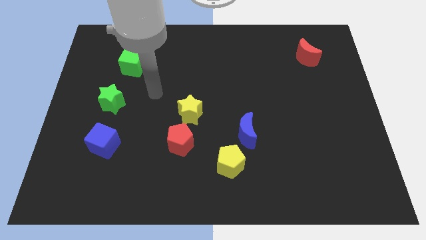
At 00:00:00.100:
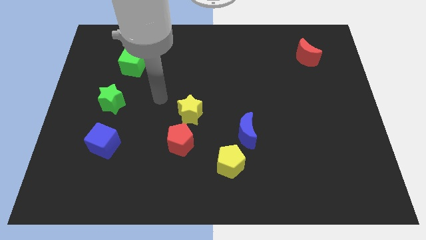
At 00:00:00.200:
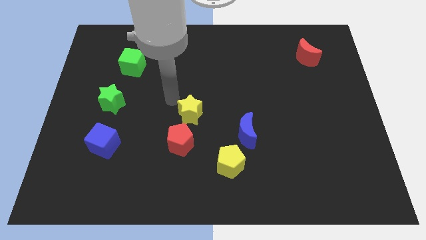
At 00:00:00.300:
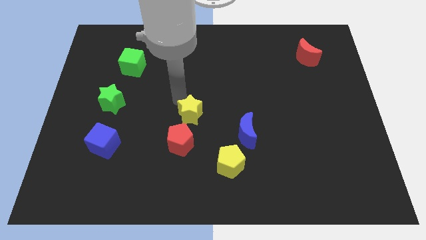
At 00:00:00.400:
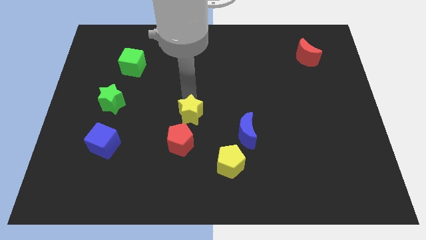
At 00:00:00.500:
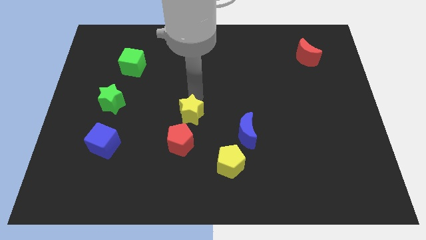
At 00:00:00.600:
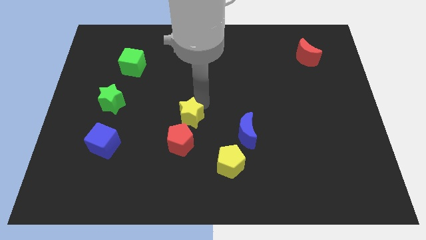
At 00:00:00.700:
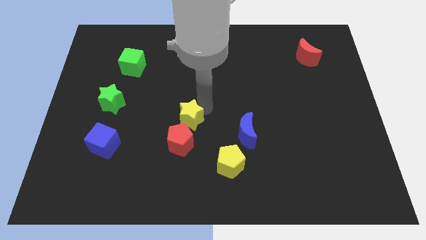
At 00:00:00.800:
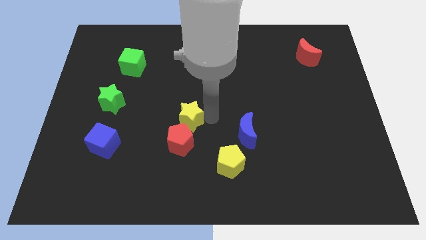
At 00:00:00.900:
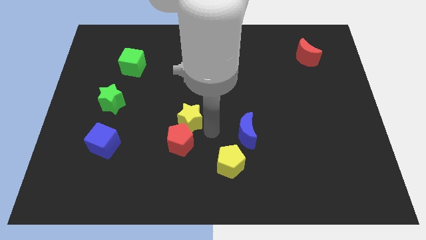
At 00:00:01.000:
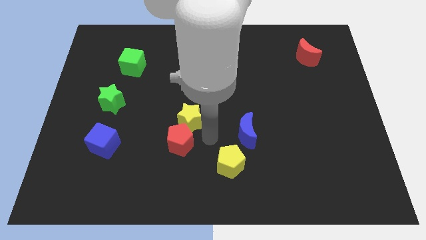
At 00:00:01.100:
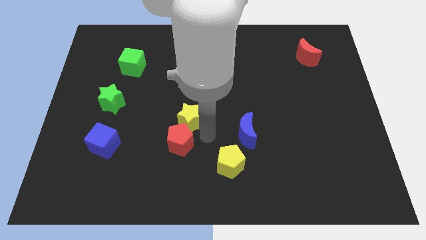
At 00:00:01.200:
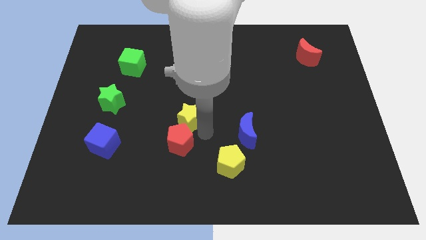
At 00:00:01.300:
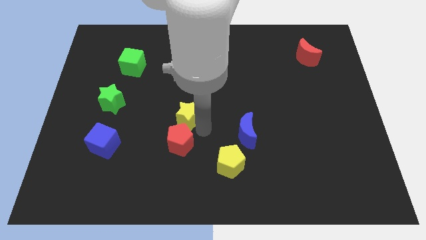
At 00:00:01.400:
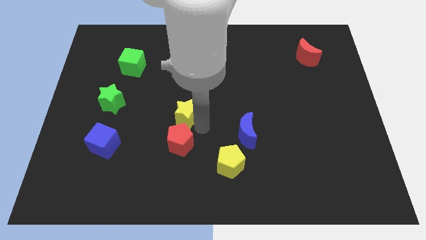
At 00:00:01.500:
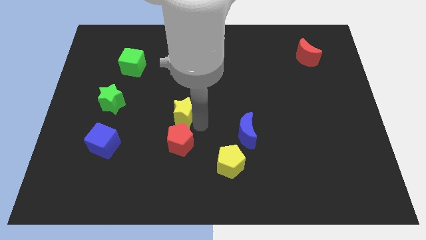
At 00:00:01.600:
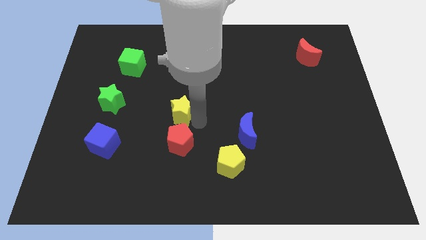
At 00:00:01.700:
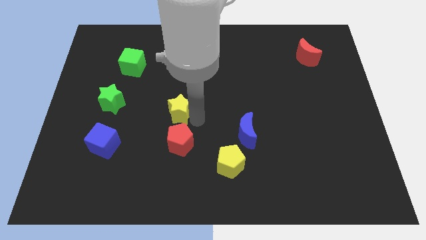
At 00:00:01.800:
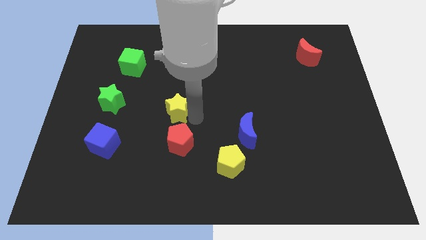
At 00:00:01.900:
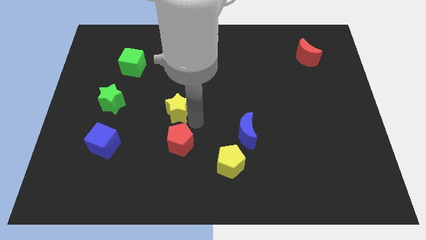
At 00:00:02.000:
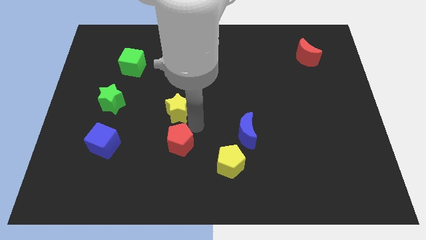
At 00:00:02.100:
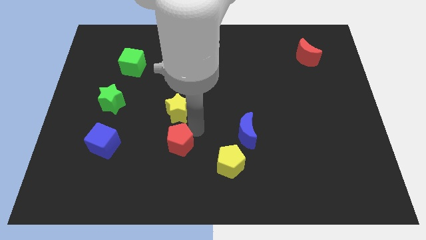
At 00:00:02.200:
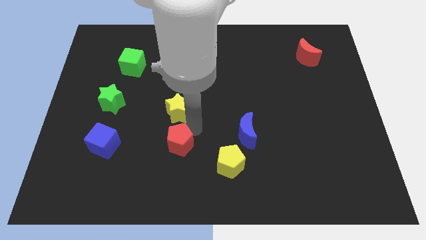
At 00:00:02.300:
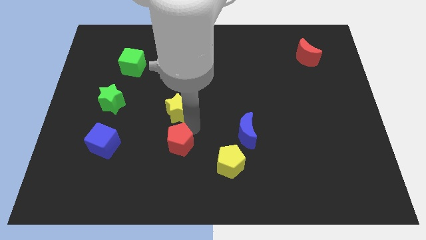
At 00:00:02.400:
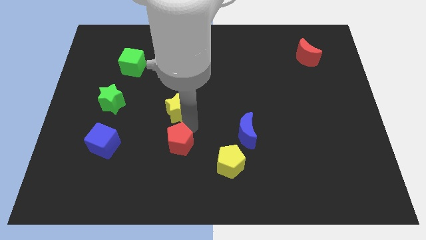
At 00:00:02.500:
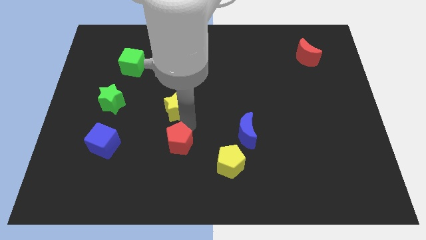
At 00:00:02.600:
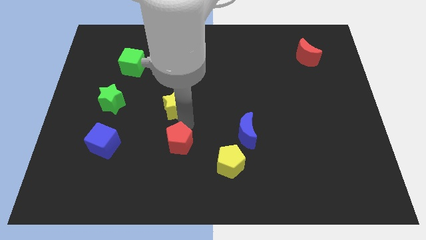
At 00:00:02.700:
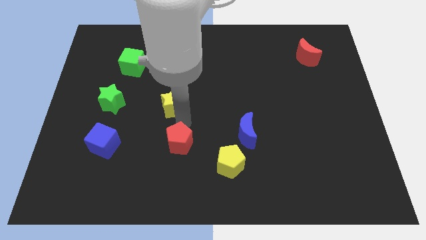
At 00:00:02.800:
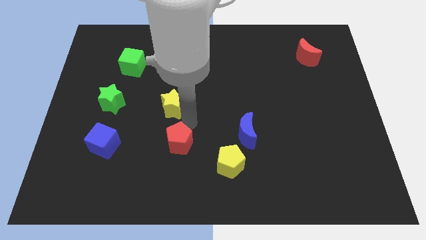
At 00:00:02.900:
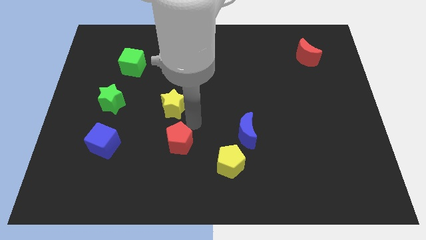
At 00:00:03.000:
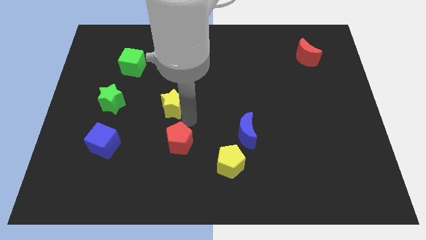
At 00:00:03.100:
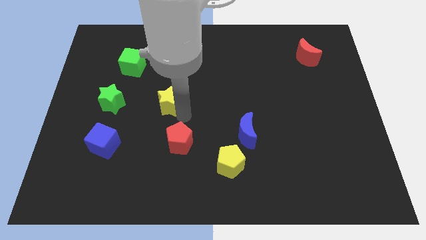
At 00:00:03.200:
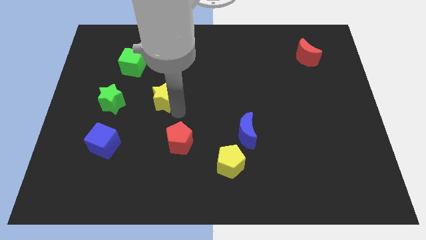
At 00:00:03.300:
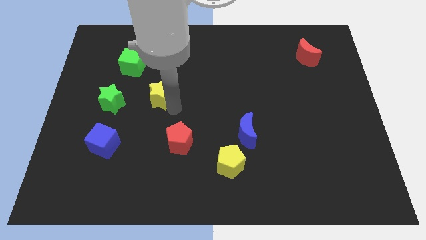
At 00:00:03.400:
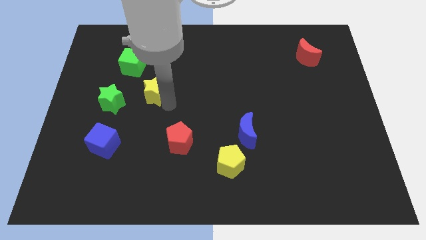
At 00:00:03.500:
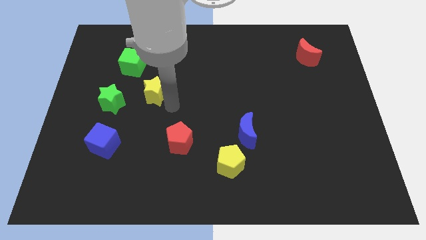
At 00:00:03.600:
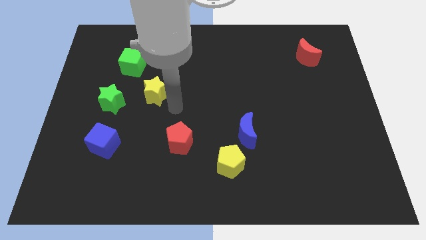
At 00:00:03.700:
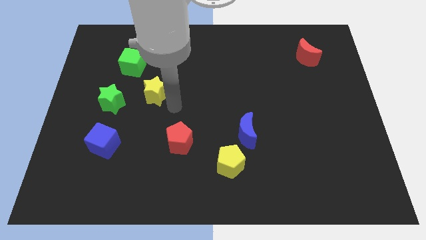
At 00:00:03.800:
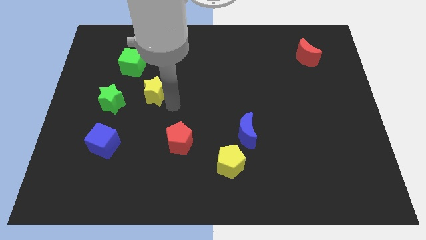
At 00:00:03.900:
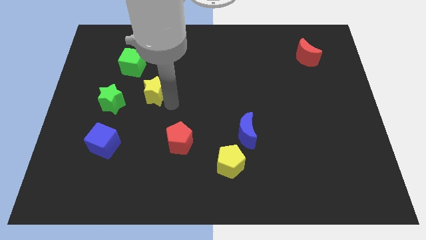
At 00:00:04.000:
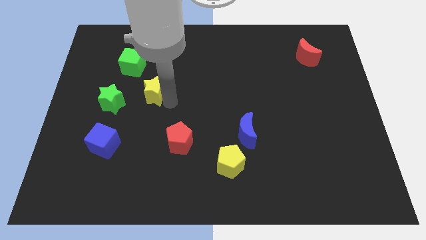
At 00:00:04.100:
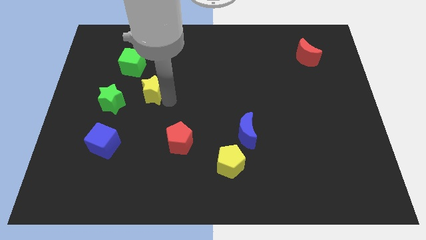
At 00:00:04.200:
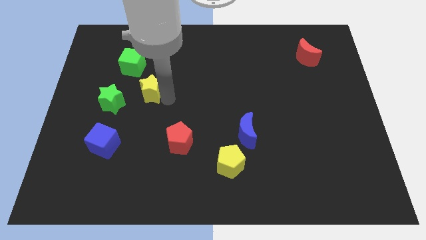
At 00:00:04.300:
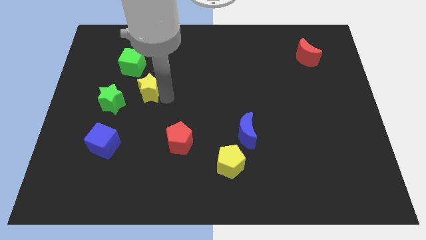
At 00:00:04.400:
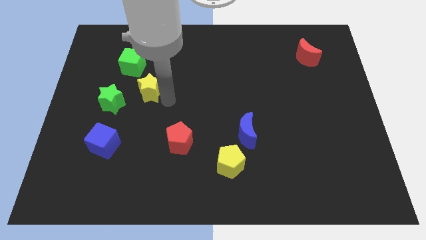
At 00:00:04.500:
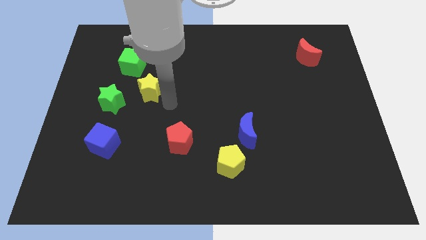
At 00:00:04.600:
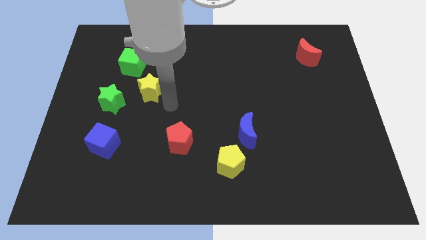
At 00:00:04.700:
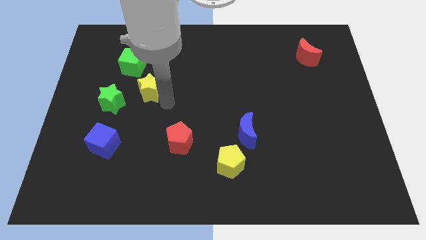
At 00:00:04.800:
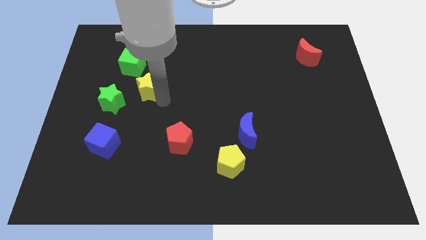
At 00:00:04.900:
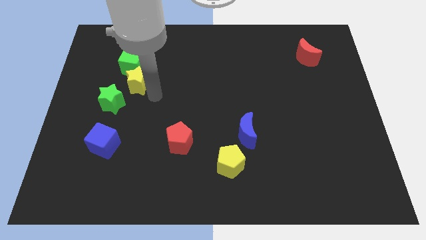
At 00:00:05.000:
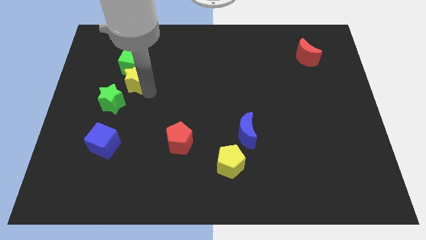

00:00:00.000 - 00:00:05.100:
slide the yellow star to the top of the green star

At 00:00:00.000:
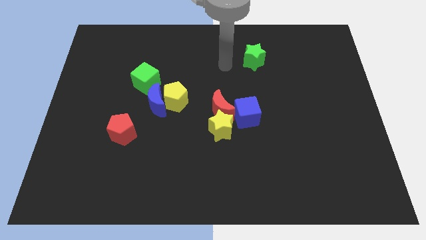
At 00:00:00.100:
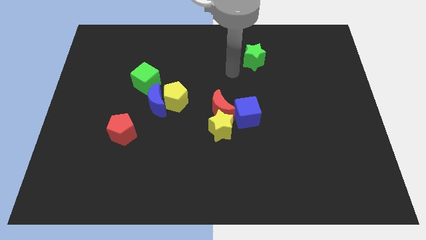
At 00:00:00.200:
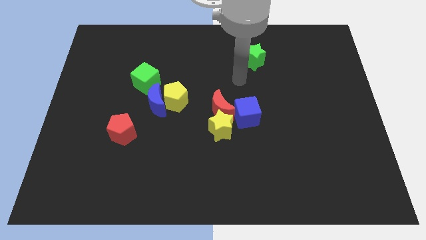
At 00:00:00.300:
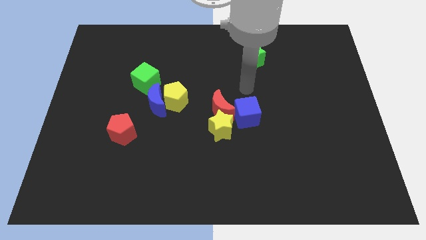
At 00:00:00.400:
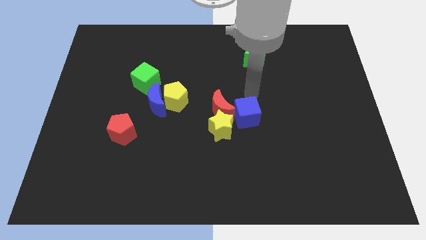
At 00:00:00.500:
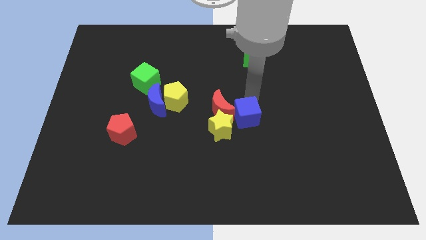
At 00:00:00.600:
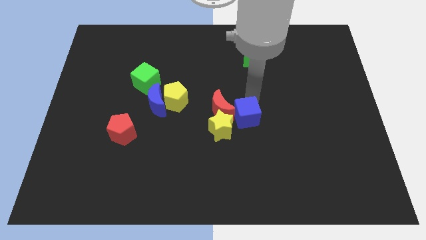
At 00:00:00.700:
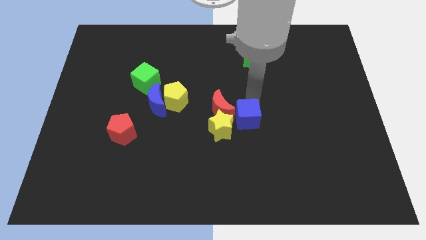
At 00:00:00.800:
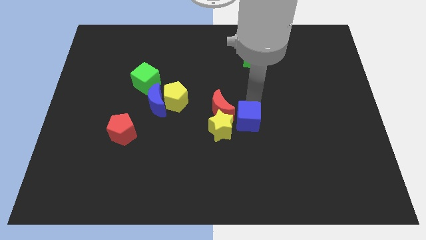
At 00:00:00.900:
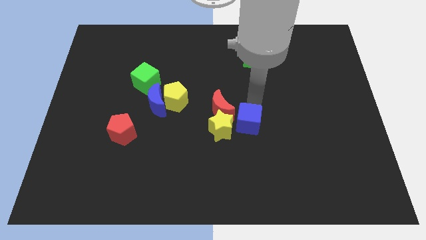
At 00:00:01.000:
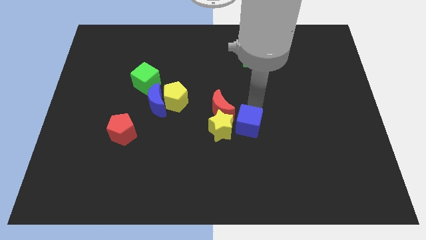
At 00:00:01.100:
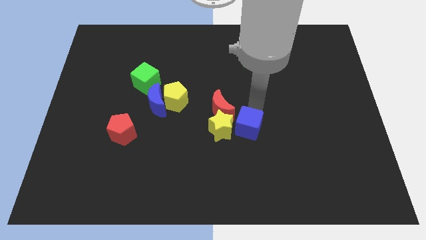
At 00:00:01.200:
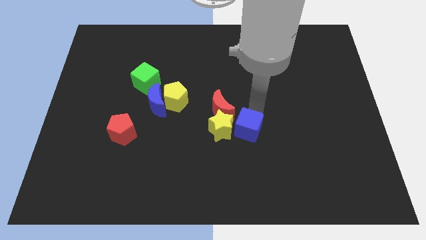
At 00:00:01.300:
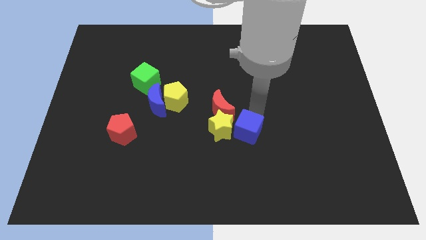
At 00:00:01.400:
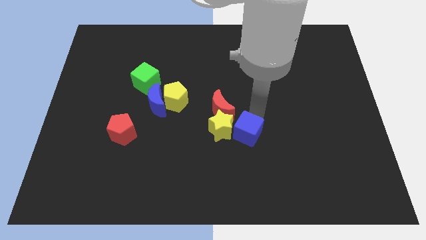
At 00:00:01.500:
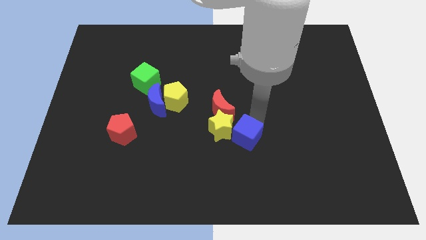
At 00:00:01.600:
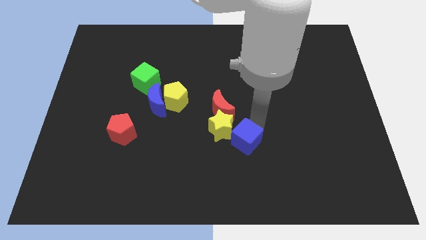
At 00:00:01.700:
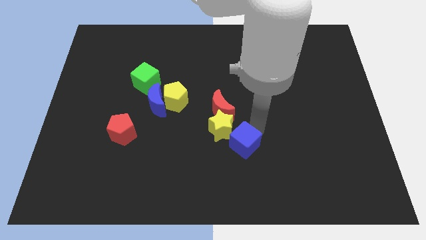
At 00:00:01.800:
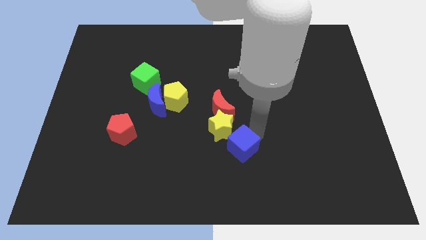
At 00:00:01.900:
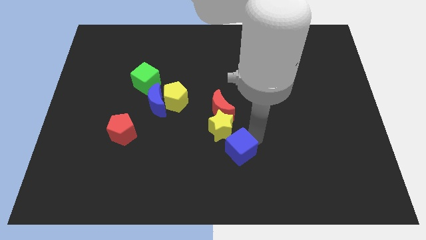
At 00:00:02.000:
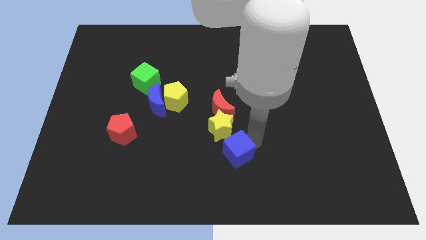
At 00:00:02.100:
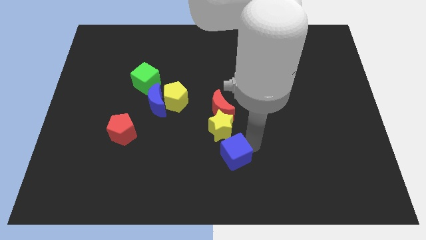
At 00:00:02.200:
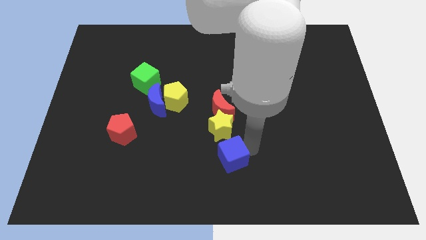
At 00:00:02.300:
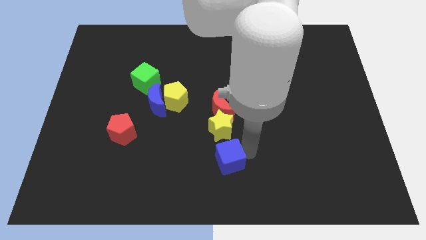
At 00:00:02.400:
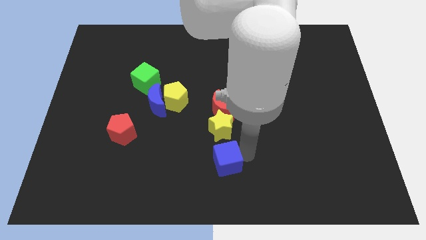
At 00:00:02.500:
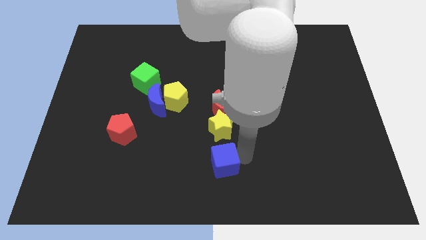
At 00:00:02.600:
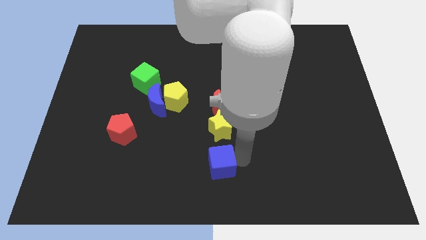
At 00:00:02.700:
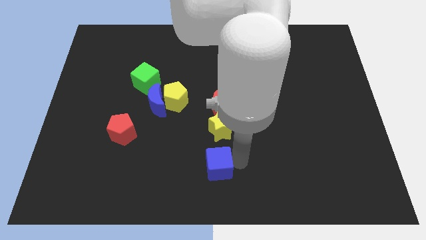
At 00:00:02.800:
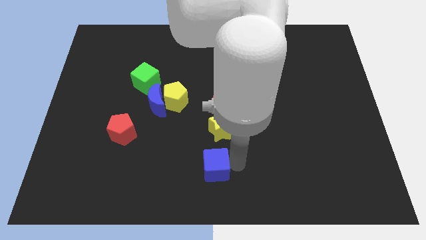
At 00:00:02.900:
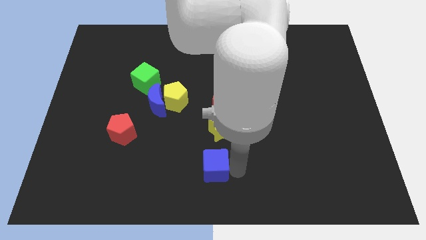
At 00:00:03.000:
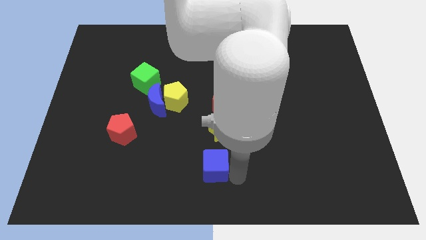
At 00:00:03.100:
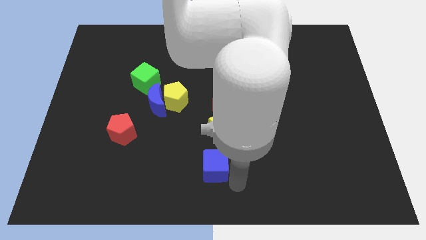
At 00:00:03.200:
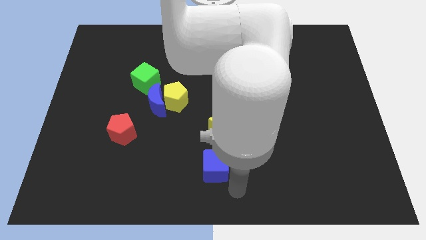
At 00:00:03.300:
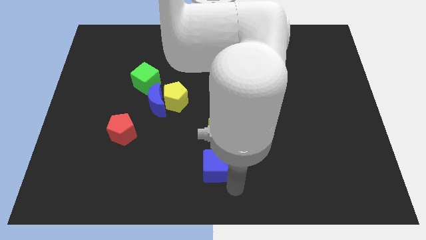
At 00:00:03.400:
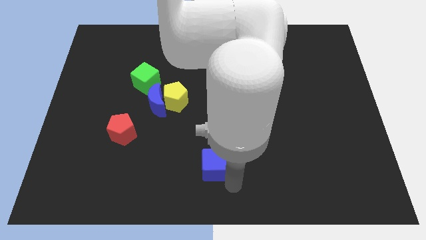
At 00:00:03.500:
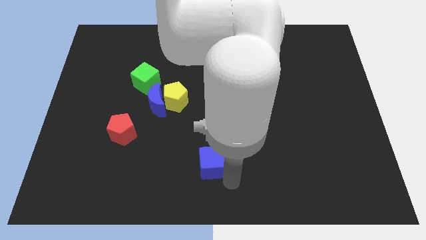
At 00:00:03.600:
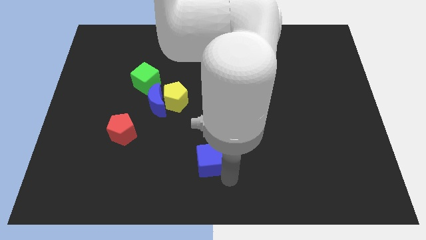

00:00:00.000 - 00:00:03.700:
move the blue cube diagonally down and to the left of the yellow star
